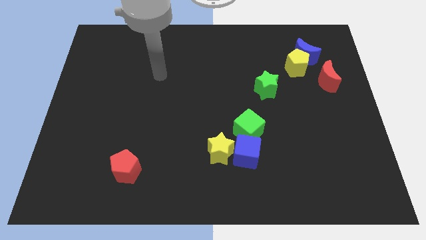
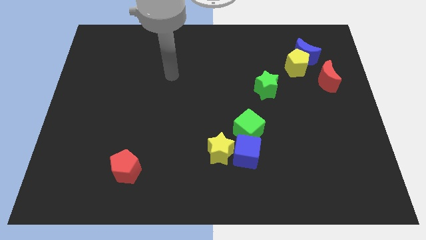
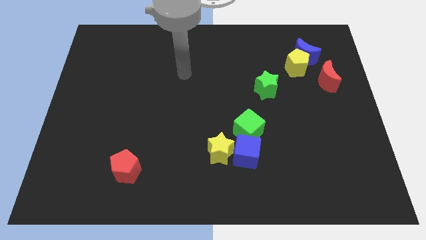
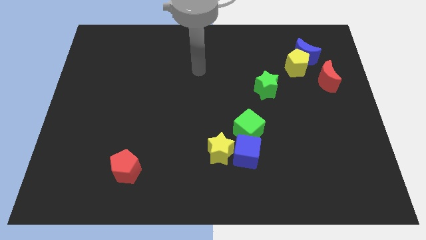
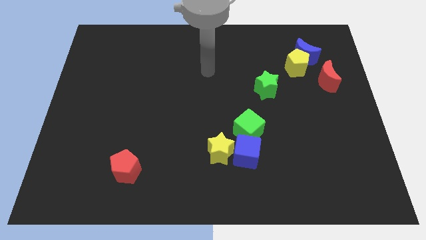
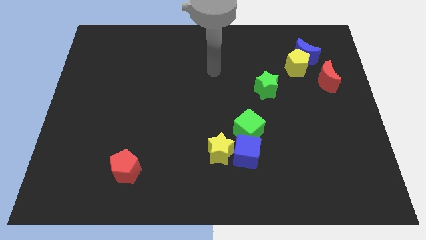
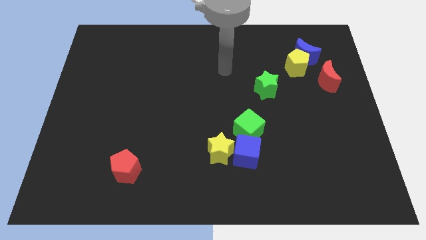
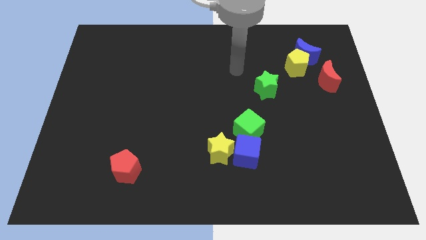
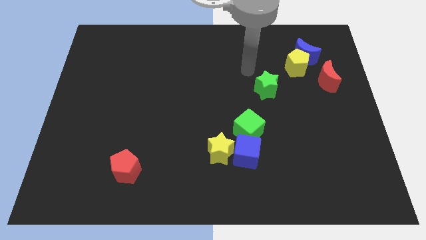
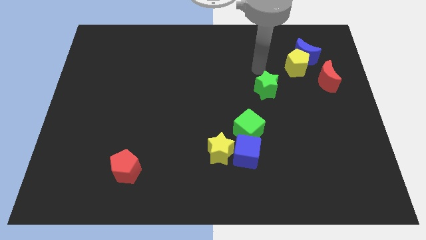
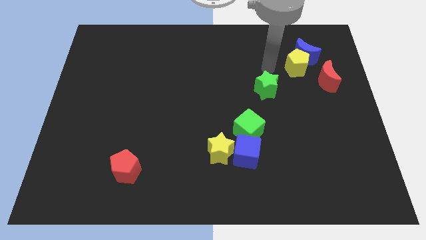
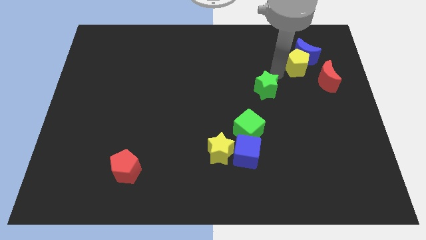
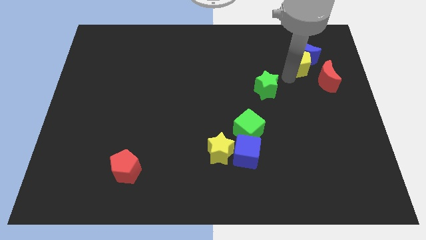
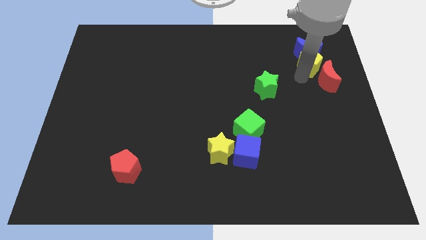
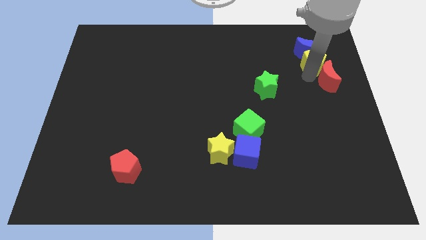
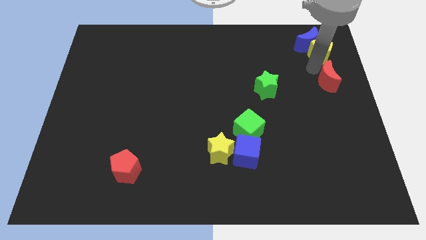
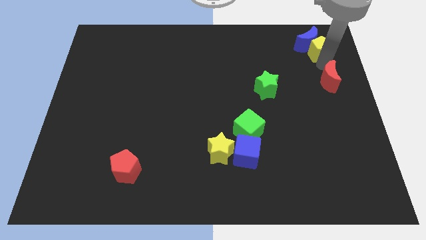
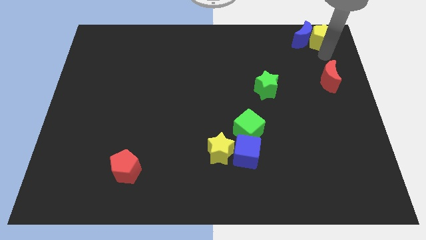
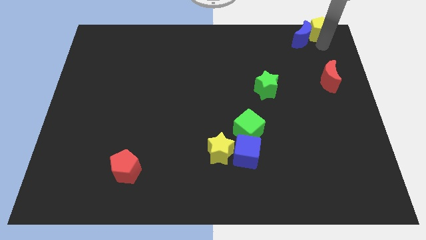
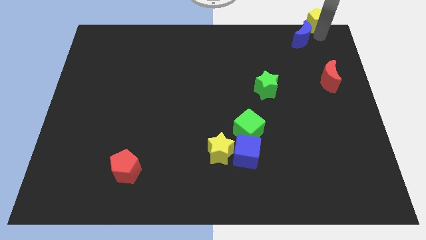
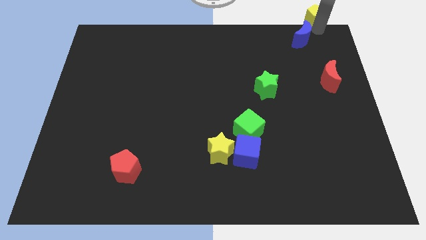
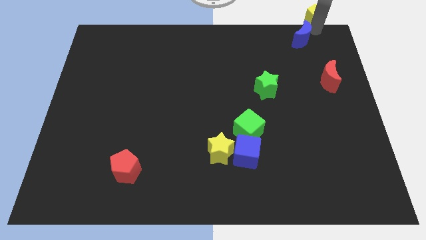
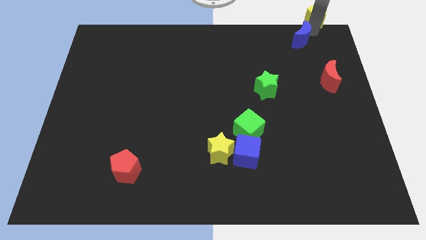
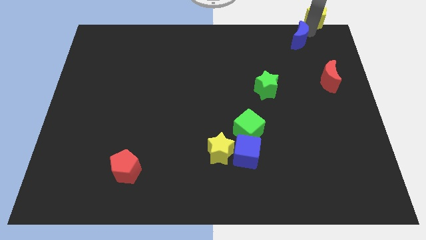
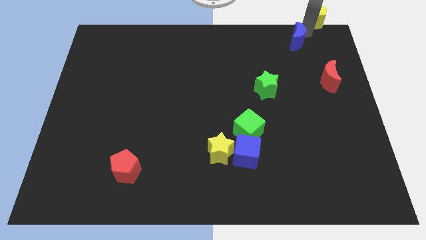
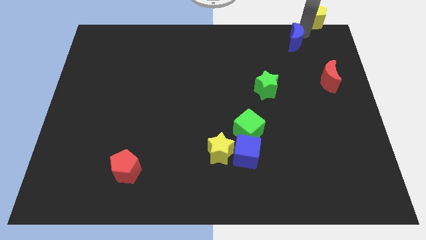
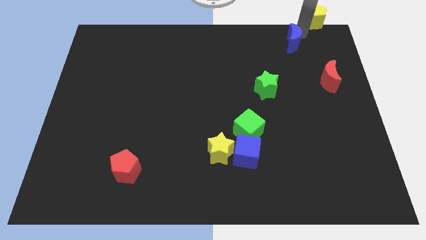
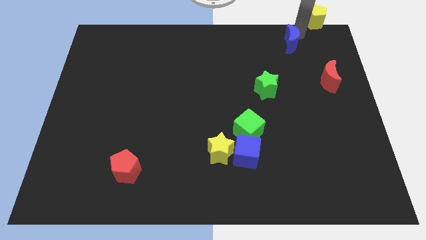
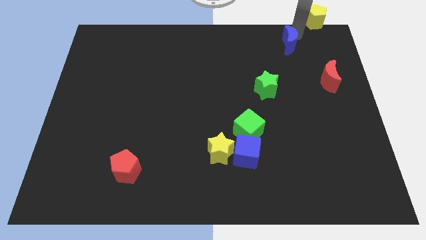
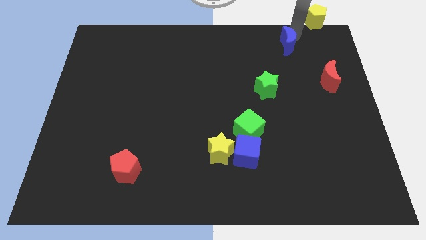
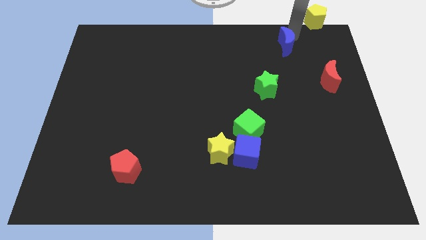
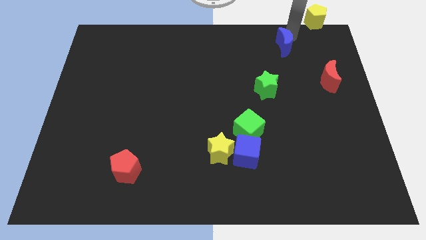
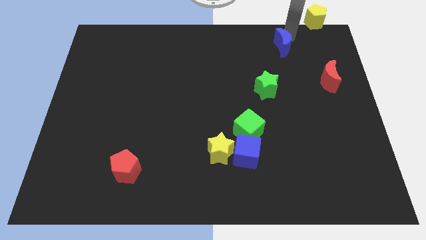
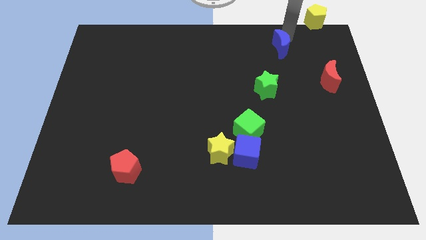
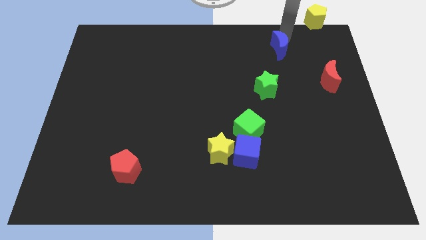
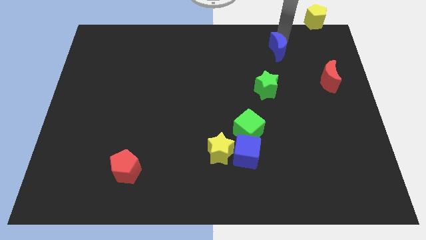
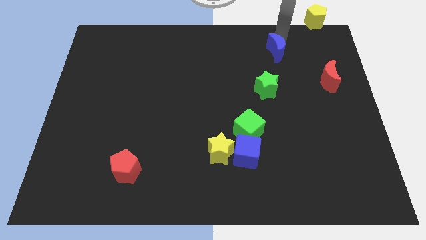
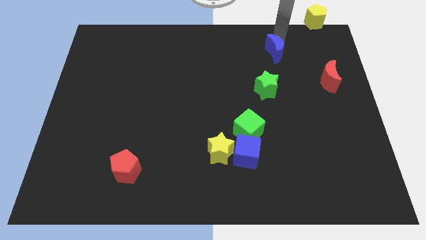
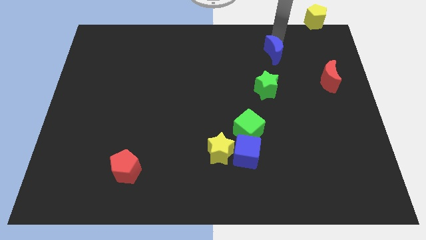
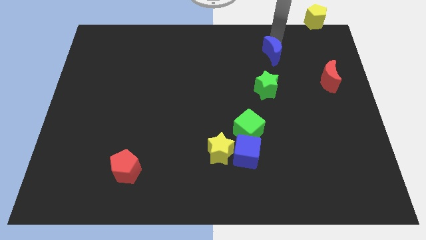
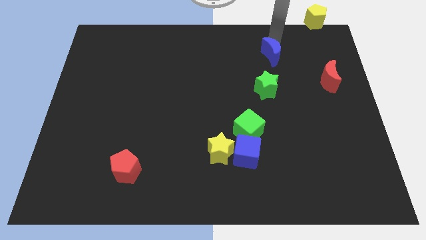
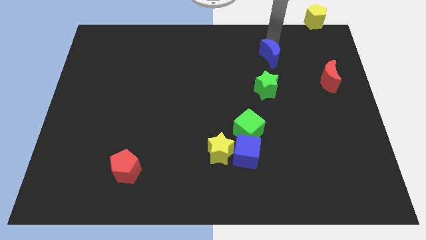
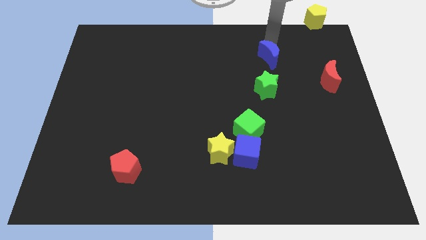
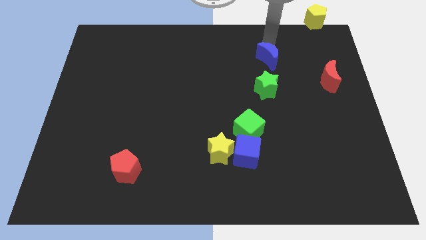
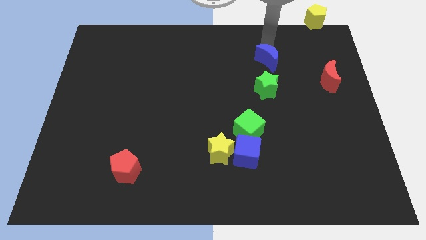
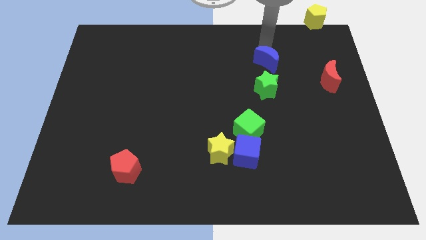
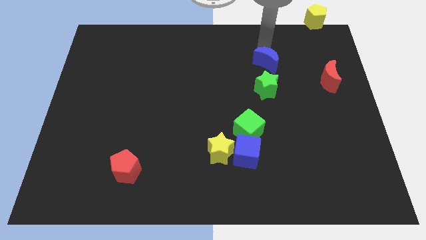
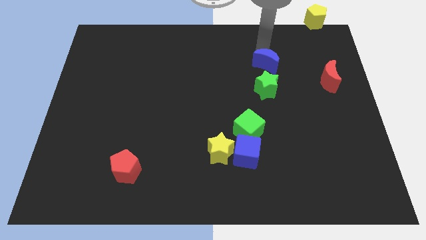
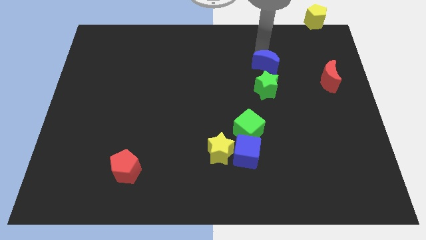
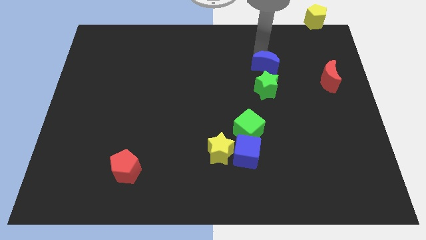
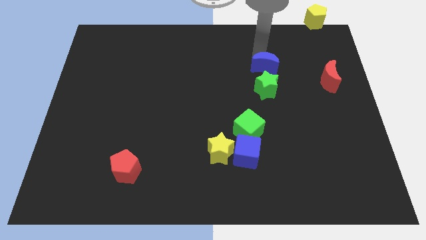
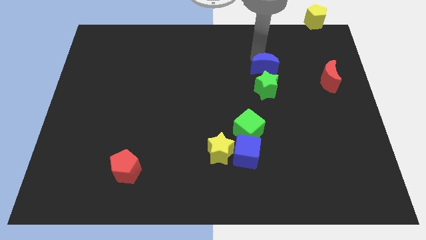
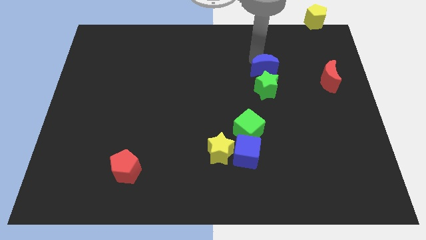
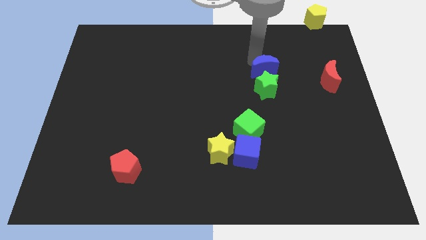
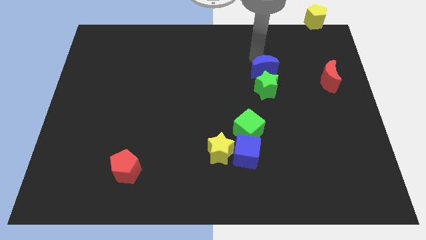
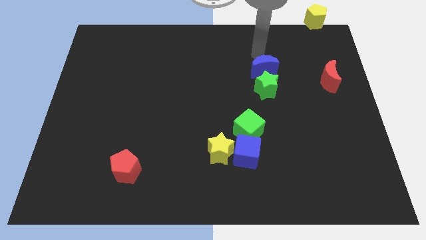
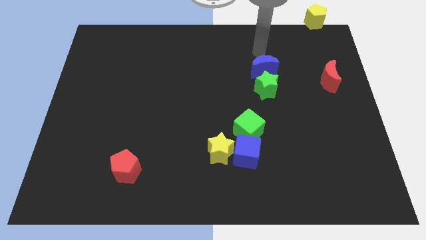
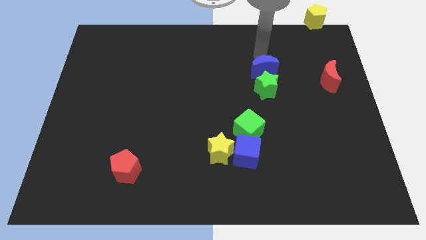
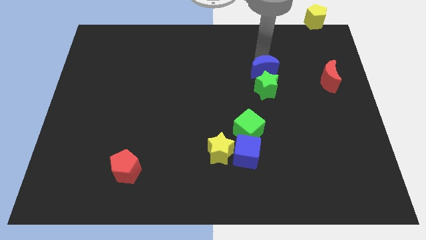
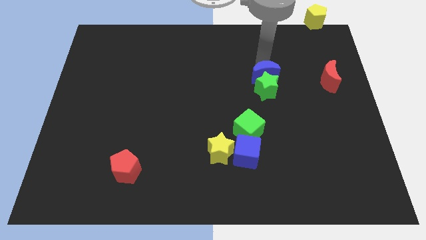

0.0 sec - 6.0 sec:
slide the blue moon close to the green star
